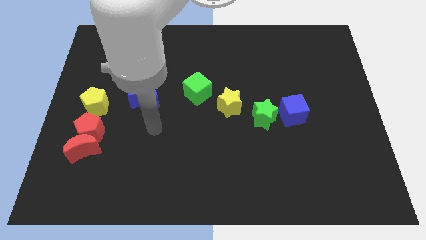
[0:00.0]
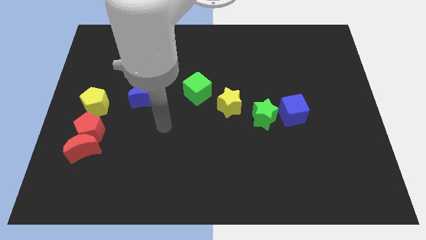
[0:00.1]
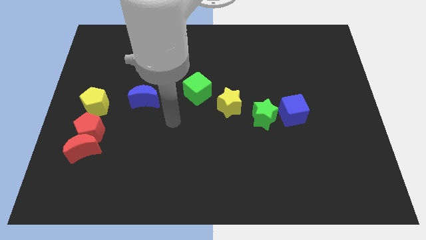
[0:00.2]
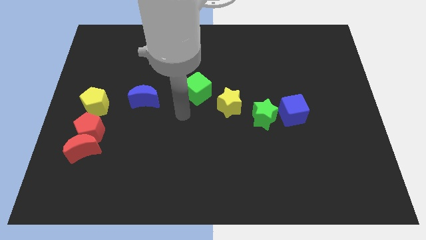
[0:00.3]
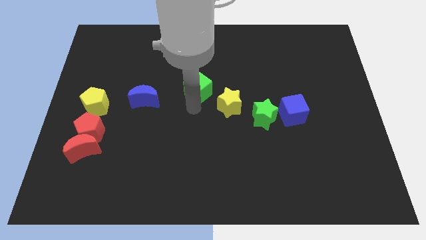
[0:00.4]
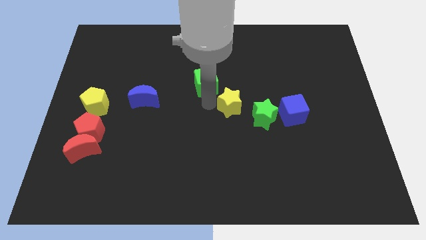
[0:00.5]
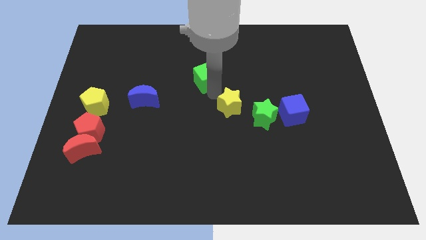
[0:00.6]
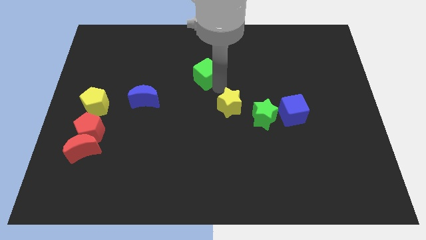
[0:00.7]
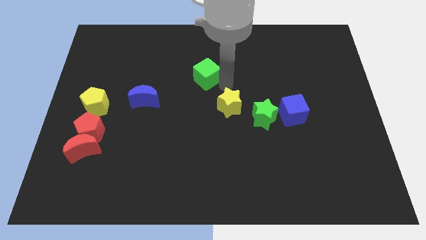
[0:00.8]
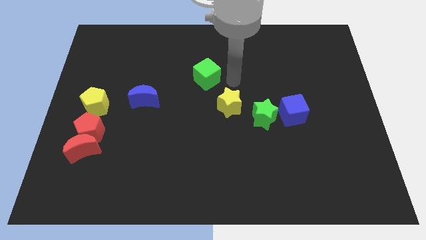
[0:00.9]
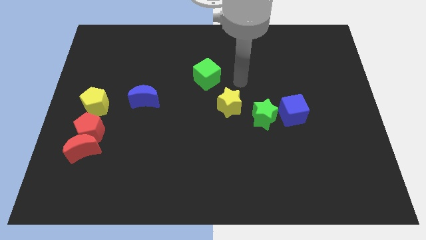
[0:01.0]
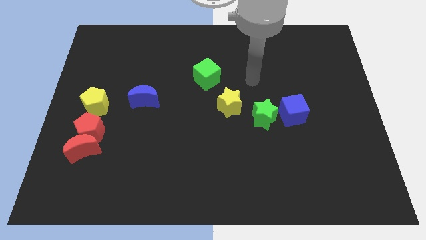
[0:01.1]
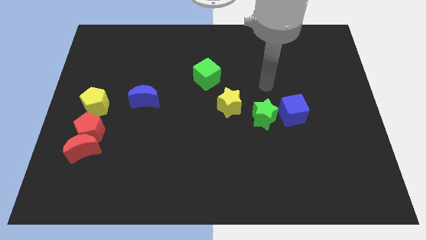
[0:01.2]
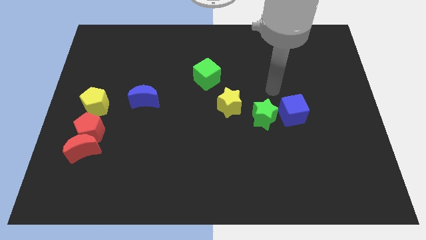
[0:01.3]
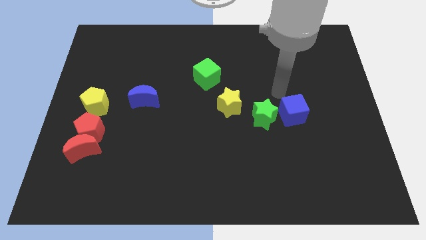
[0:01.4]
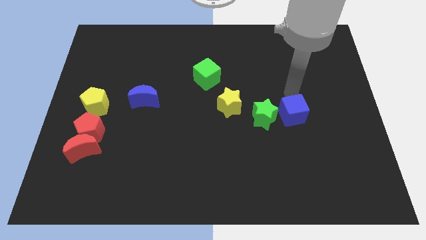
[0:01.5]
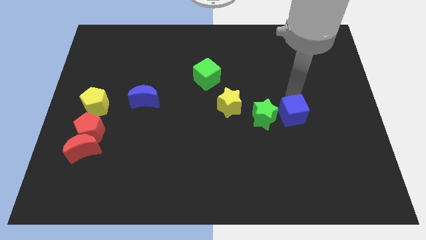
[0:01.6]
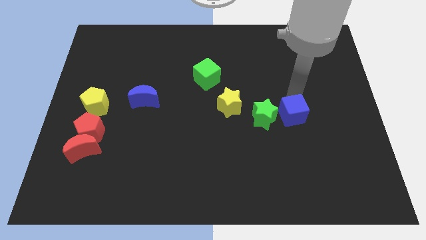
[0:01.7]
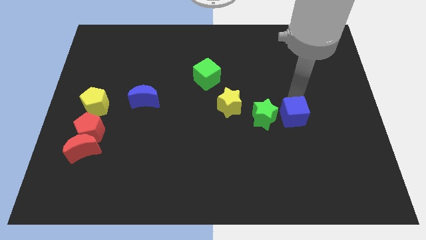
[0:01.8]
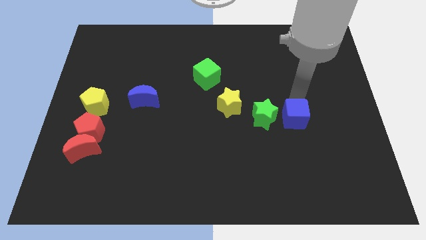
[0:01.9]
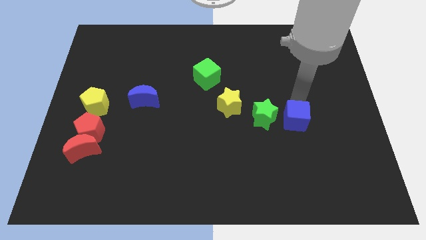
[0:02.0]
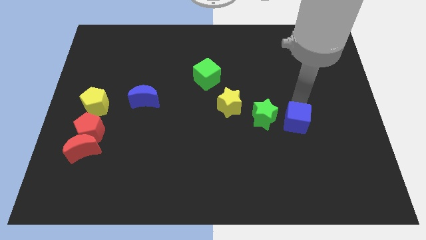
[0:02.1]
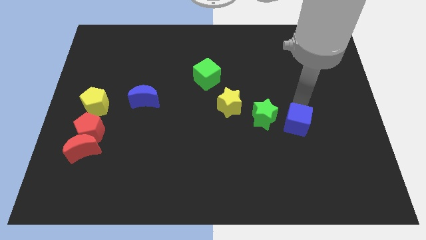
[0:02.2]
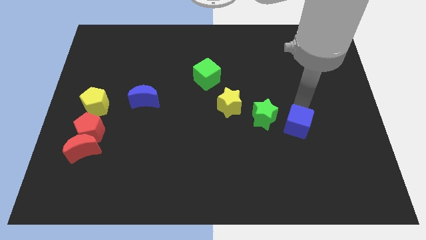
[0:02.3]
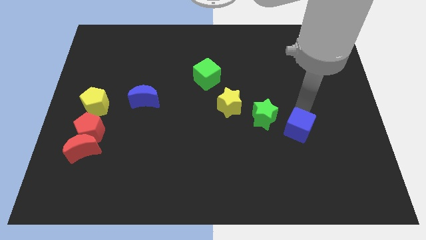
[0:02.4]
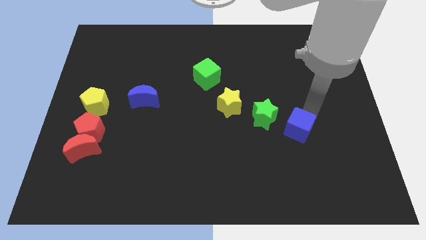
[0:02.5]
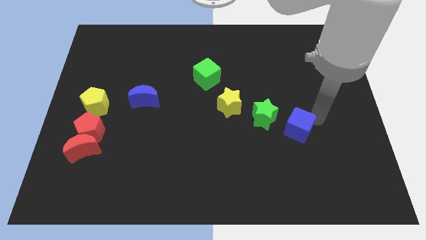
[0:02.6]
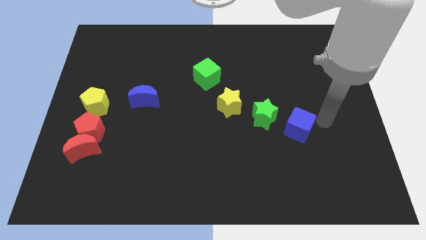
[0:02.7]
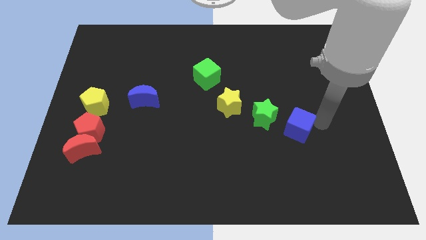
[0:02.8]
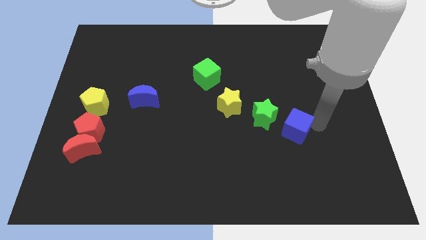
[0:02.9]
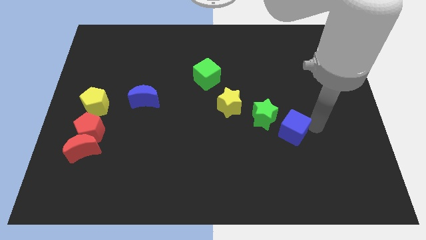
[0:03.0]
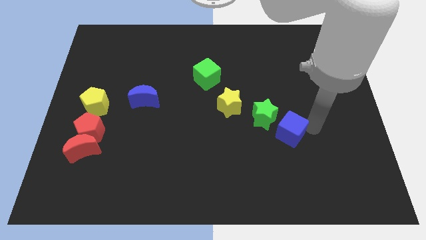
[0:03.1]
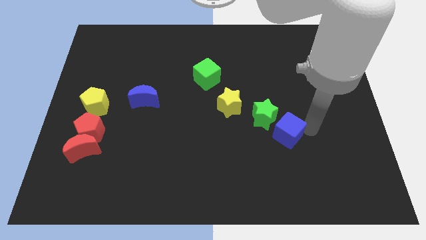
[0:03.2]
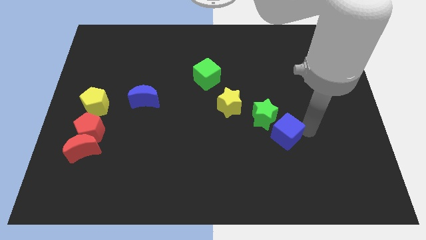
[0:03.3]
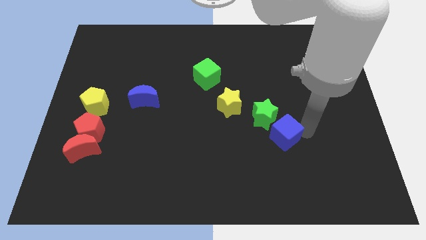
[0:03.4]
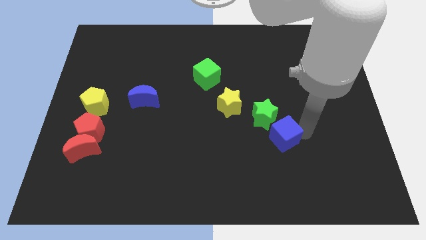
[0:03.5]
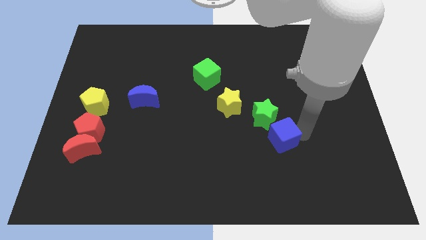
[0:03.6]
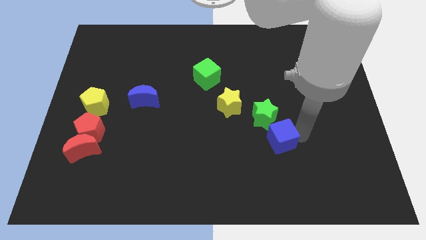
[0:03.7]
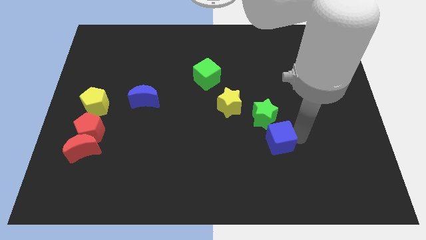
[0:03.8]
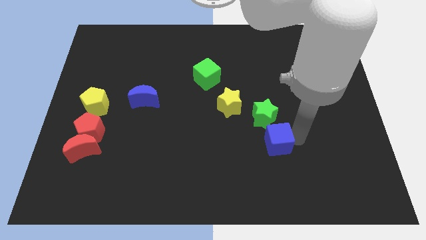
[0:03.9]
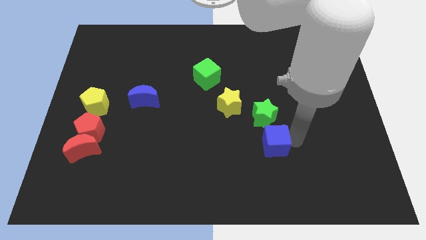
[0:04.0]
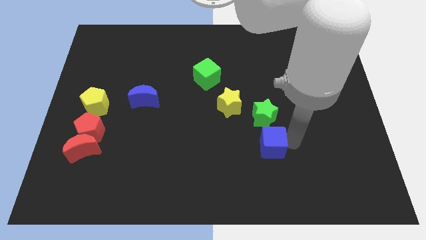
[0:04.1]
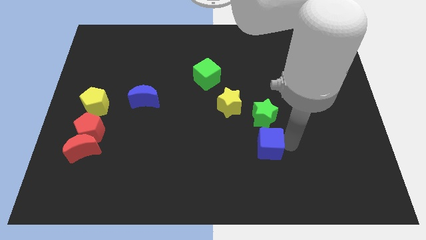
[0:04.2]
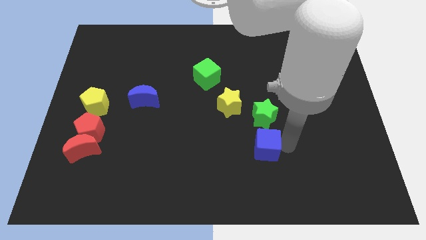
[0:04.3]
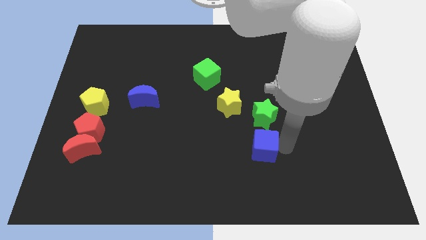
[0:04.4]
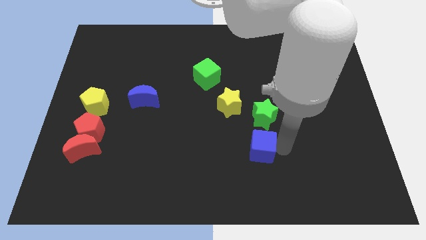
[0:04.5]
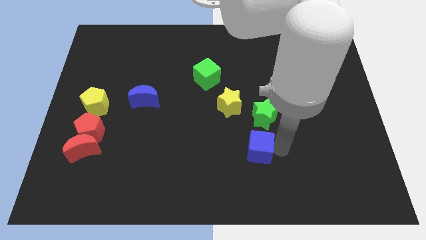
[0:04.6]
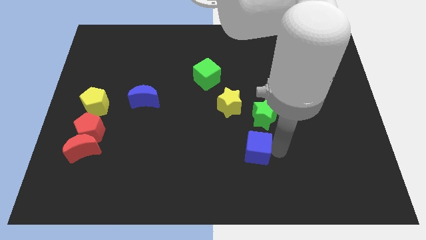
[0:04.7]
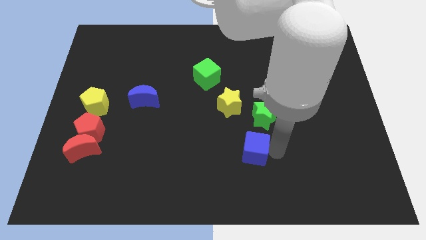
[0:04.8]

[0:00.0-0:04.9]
slide the blue cube to the bottom of the yellow star

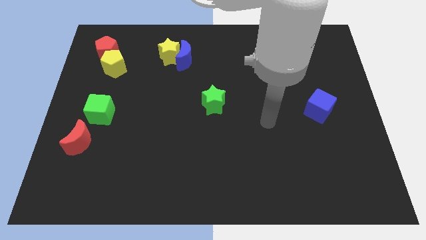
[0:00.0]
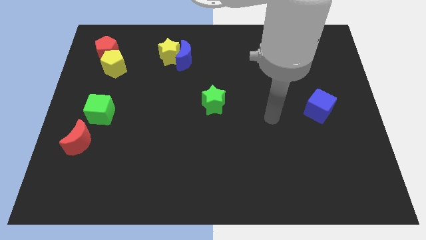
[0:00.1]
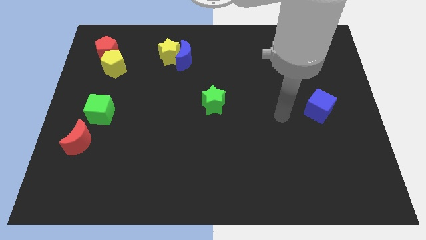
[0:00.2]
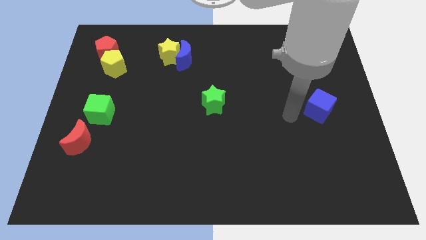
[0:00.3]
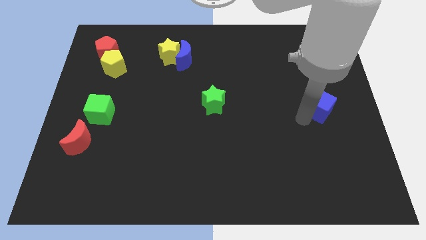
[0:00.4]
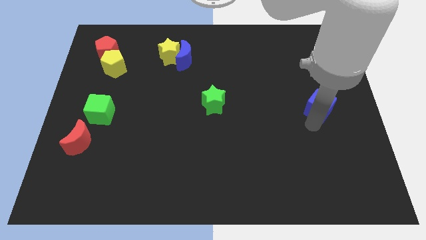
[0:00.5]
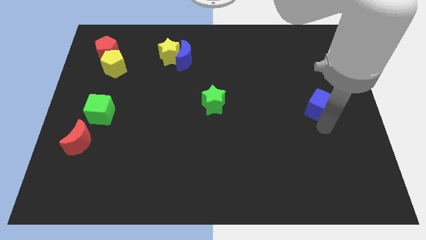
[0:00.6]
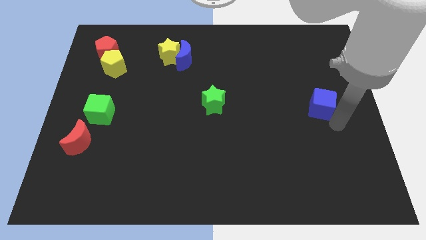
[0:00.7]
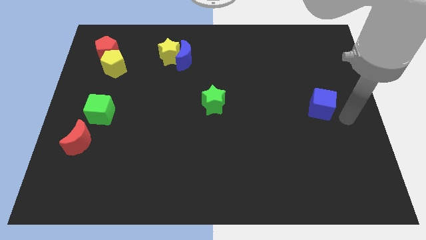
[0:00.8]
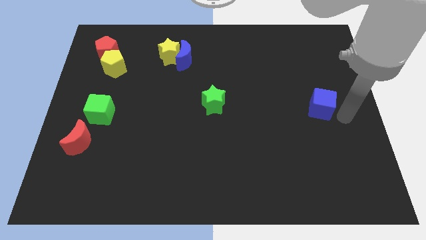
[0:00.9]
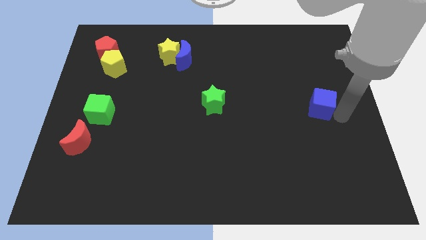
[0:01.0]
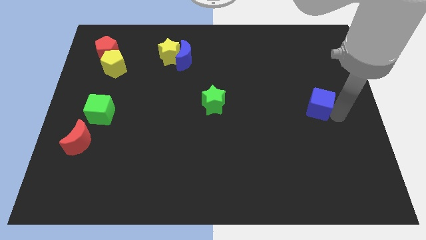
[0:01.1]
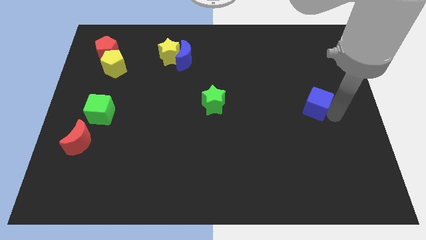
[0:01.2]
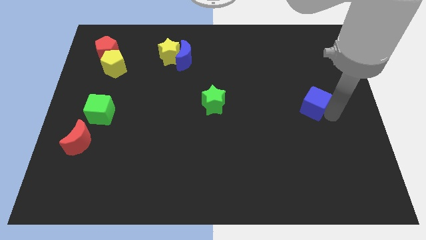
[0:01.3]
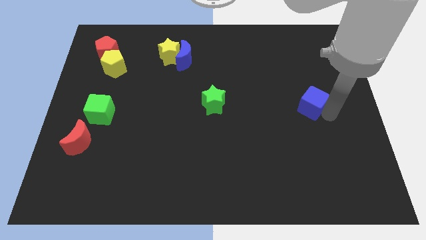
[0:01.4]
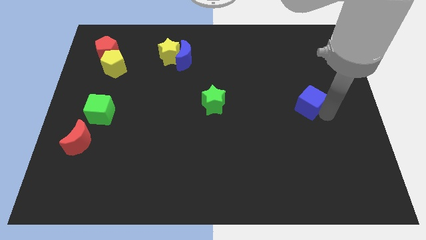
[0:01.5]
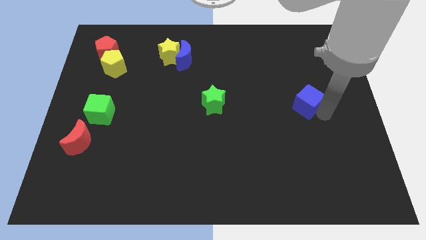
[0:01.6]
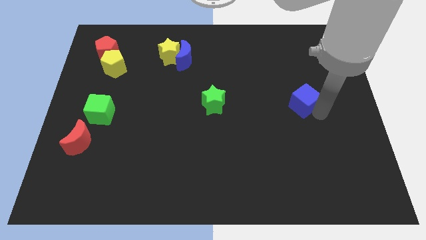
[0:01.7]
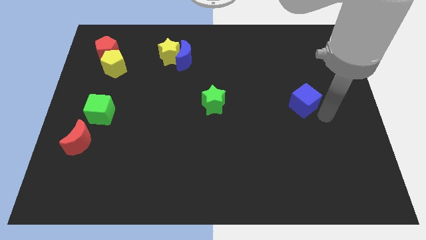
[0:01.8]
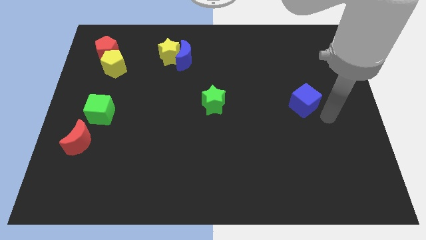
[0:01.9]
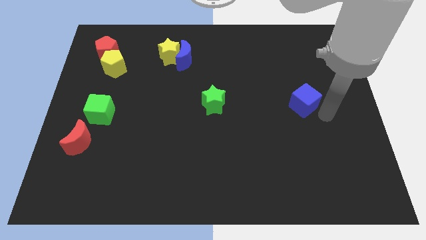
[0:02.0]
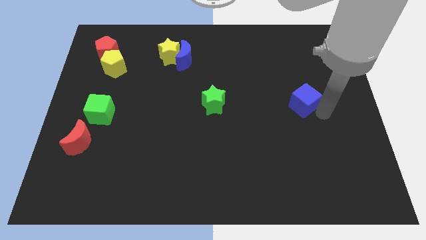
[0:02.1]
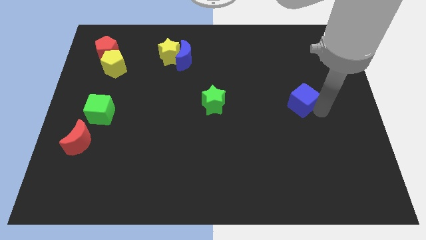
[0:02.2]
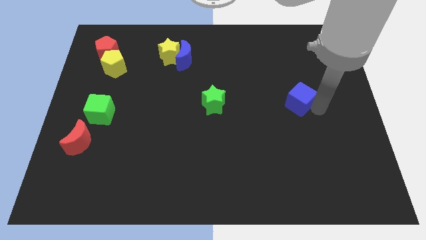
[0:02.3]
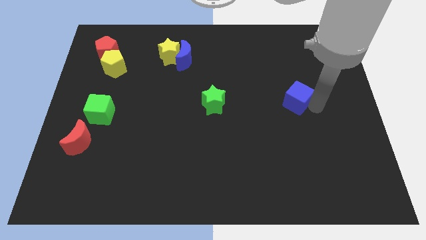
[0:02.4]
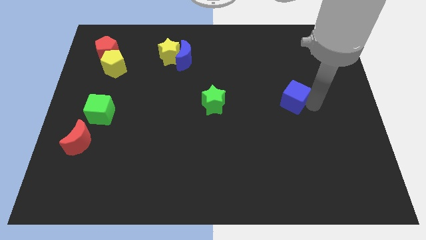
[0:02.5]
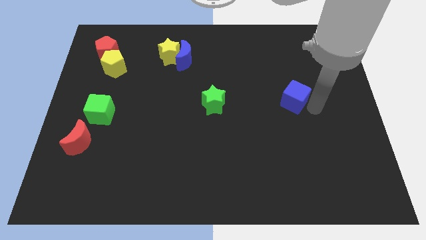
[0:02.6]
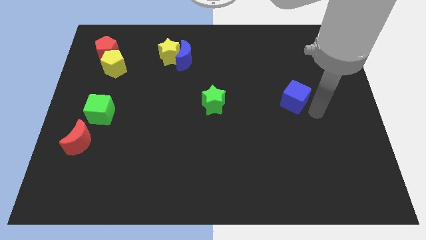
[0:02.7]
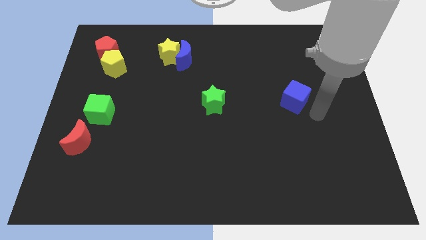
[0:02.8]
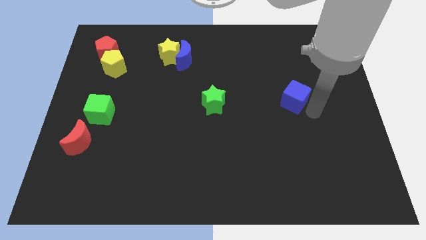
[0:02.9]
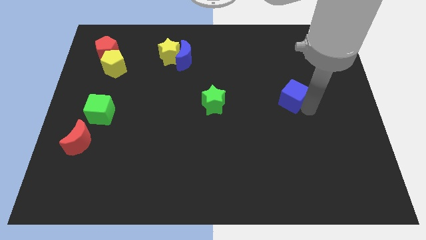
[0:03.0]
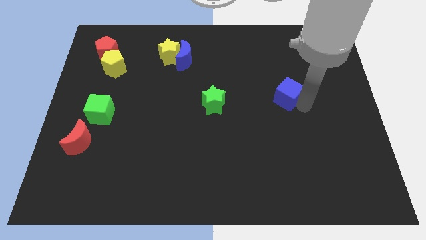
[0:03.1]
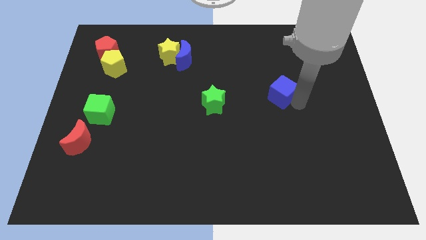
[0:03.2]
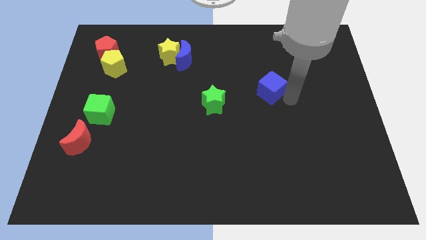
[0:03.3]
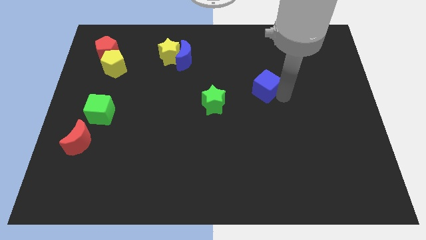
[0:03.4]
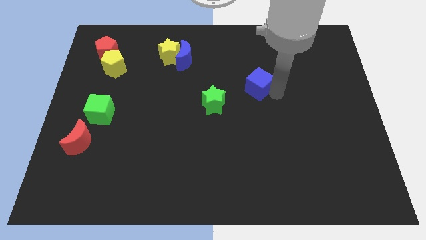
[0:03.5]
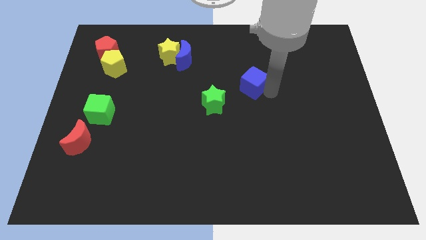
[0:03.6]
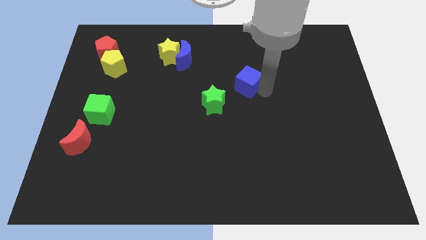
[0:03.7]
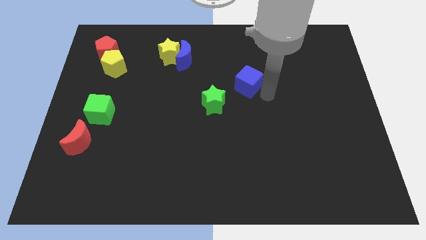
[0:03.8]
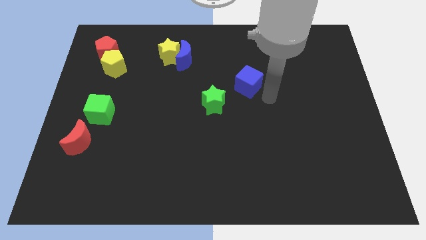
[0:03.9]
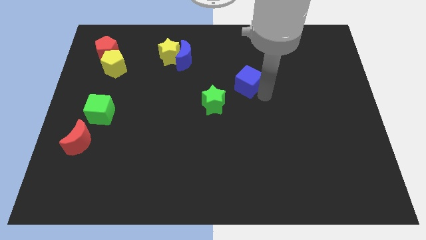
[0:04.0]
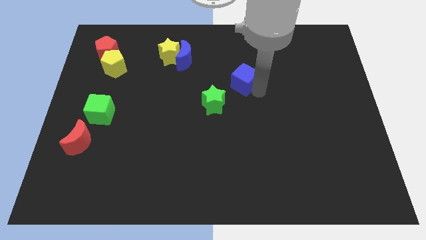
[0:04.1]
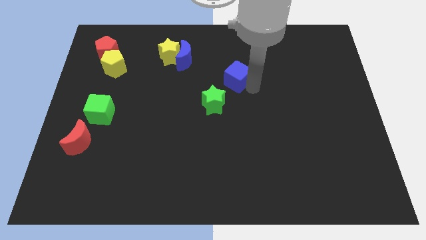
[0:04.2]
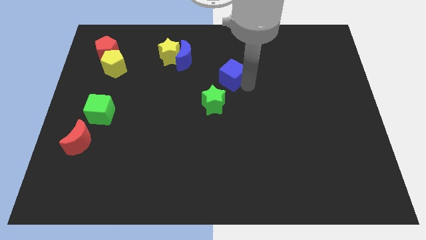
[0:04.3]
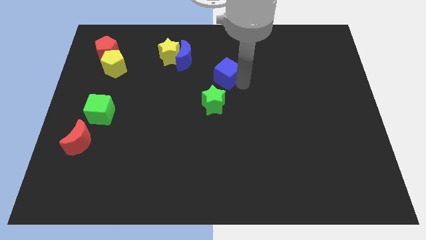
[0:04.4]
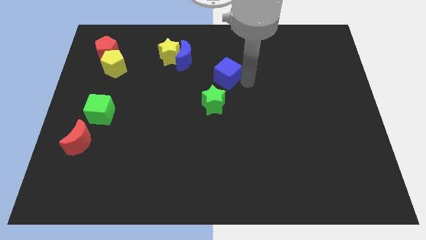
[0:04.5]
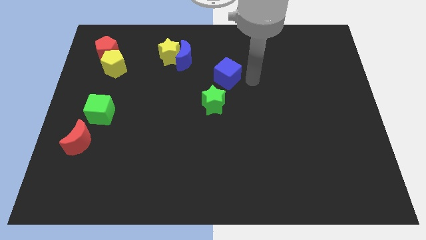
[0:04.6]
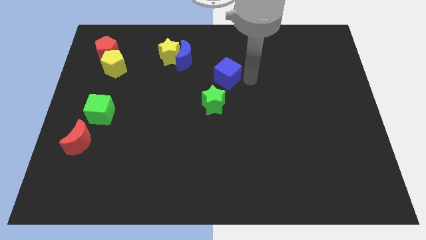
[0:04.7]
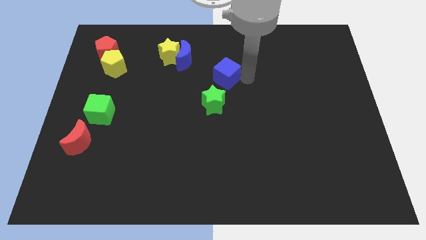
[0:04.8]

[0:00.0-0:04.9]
move the blue cube to the bottom right of the blue moon
